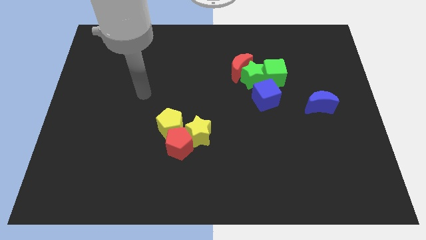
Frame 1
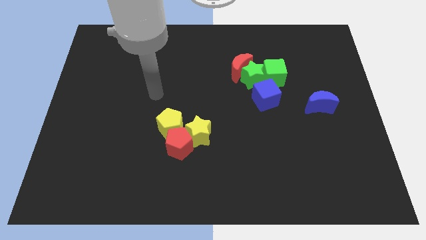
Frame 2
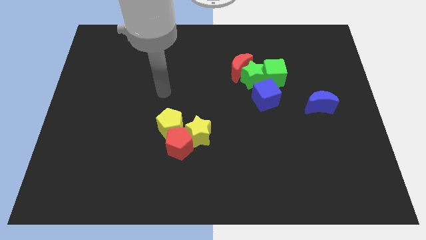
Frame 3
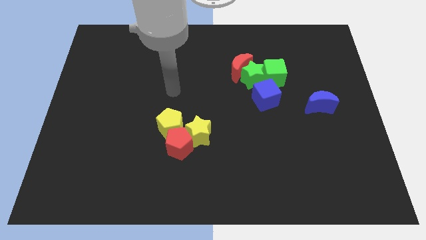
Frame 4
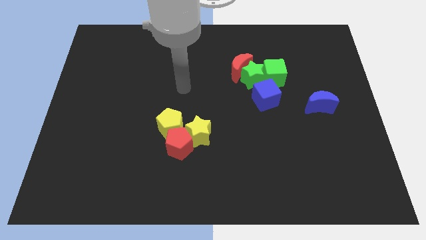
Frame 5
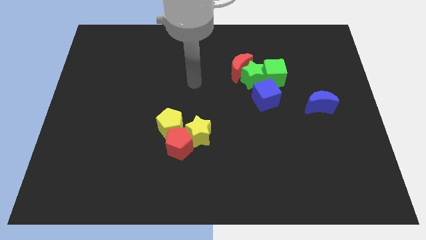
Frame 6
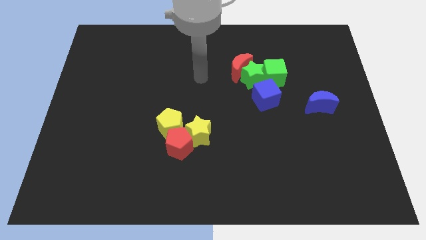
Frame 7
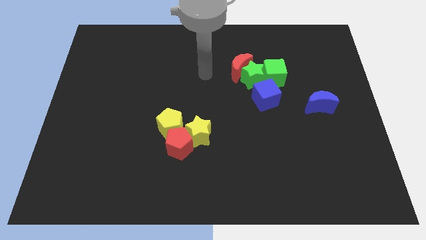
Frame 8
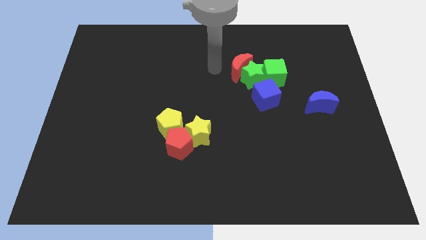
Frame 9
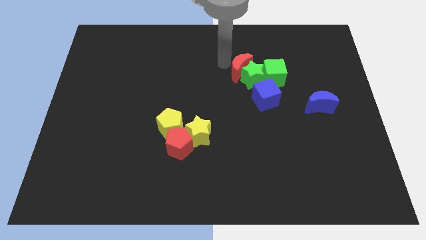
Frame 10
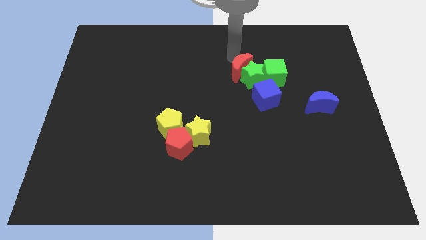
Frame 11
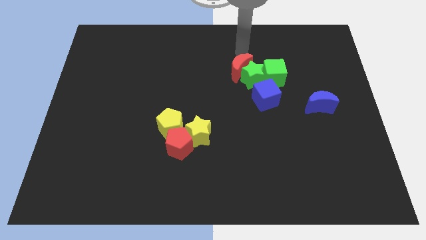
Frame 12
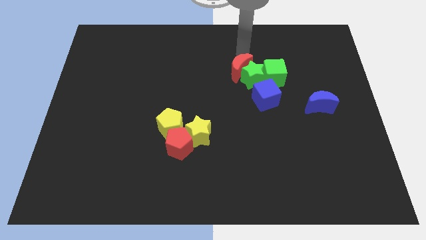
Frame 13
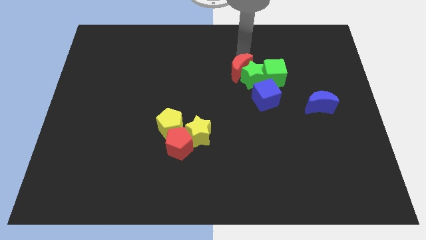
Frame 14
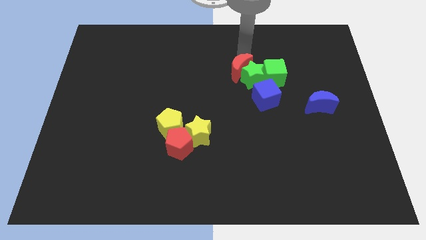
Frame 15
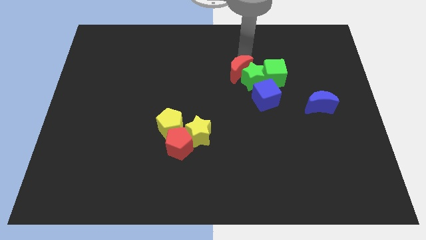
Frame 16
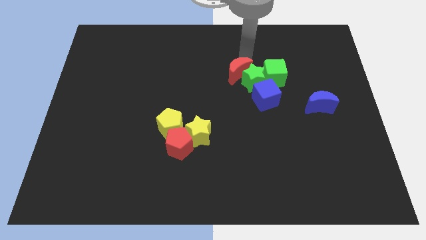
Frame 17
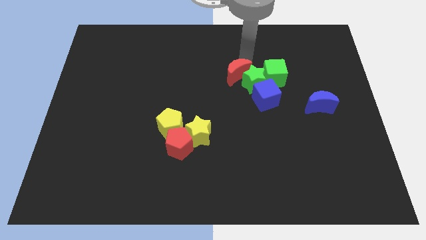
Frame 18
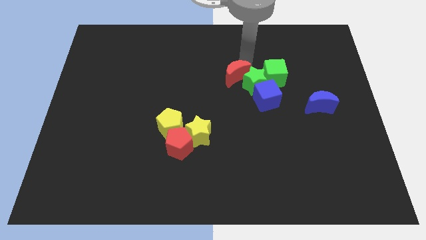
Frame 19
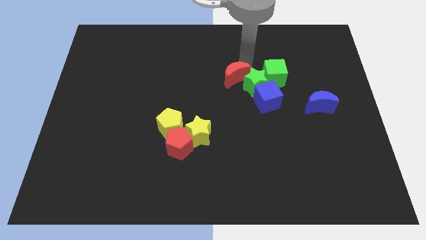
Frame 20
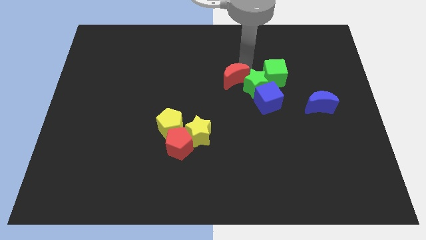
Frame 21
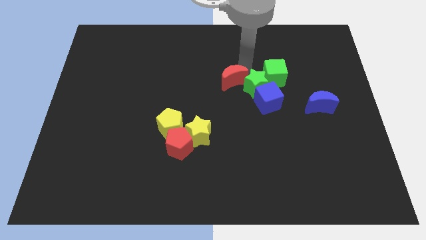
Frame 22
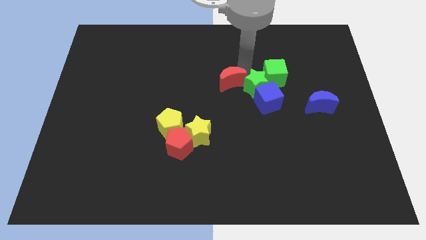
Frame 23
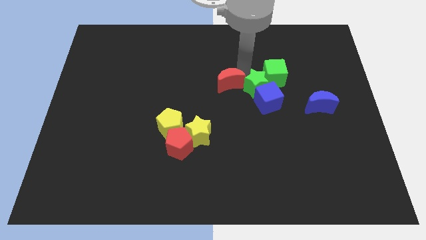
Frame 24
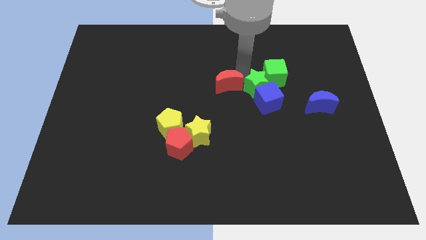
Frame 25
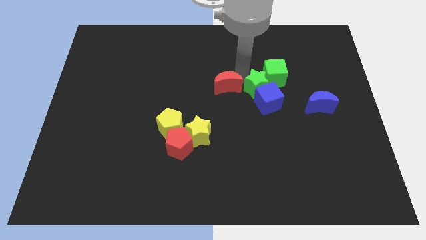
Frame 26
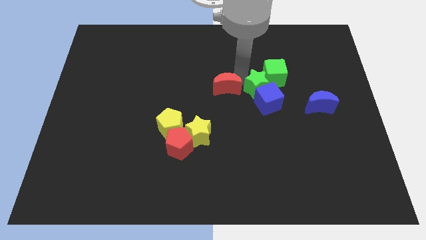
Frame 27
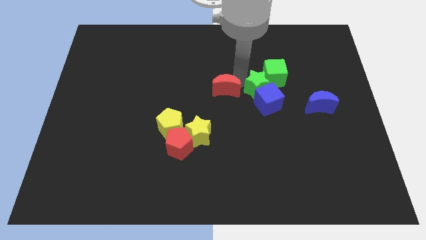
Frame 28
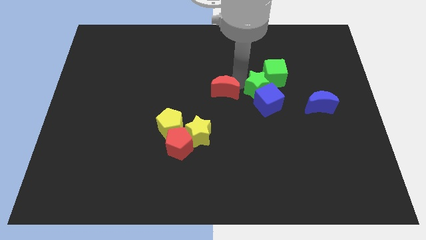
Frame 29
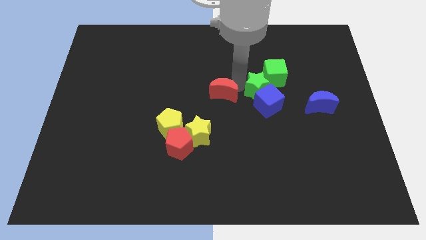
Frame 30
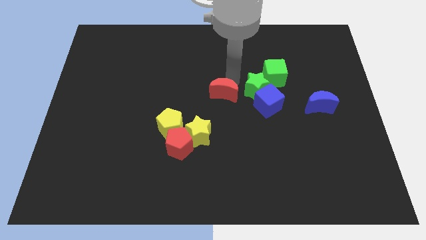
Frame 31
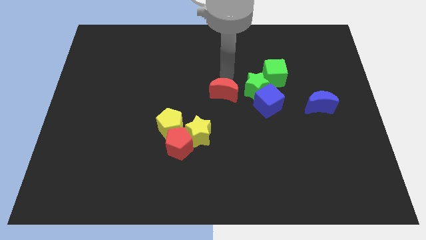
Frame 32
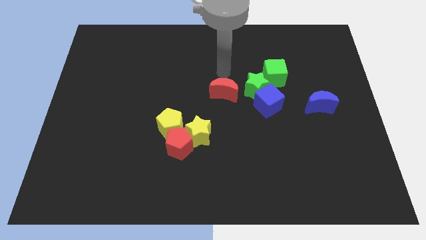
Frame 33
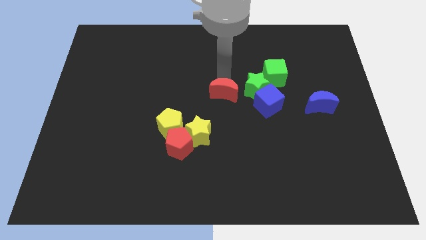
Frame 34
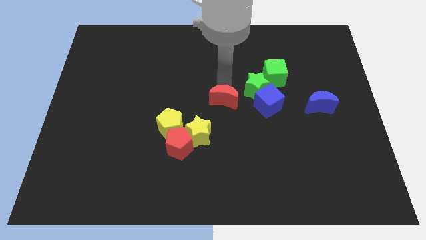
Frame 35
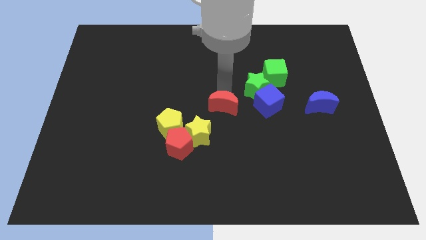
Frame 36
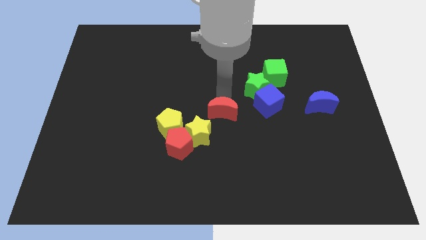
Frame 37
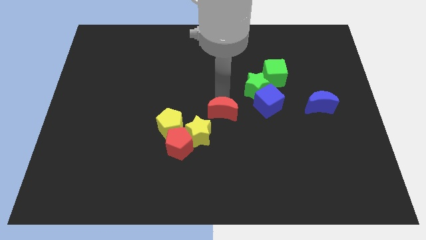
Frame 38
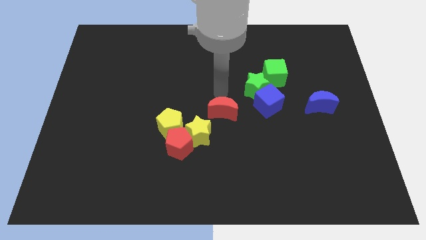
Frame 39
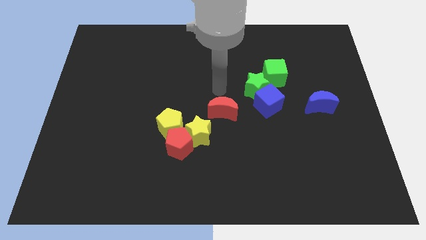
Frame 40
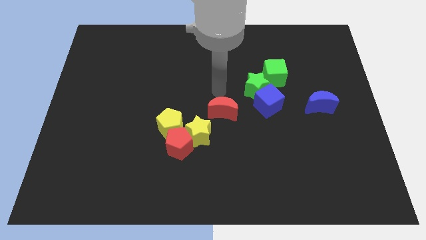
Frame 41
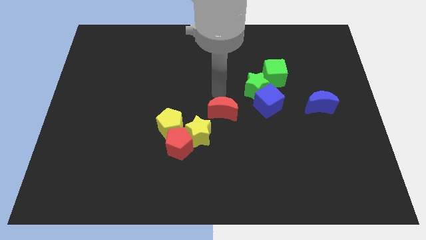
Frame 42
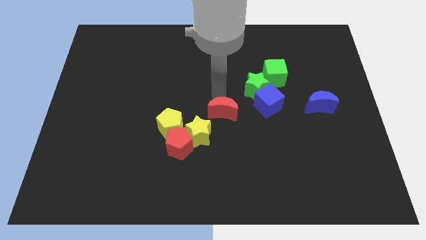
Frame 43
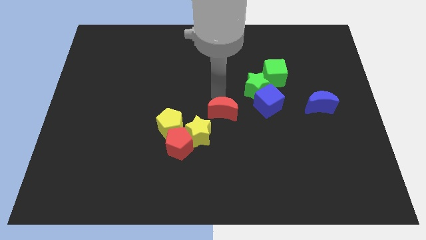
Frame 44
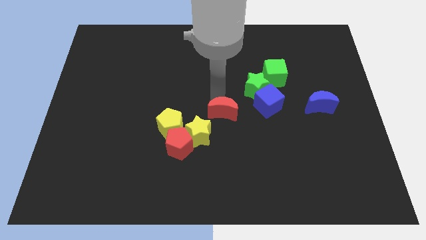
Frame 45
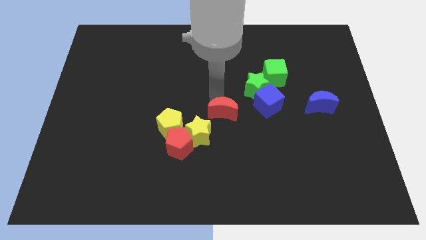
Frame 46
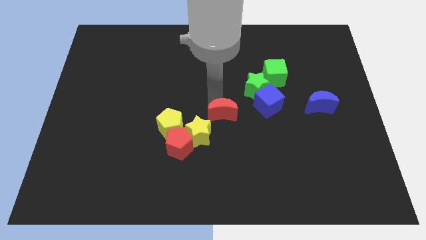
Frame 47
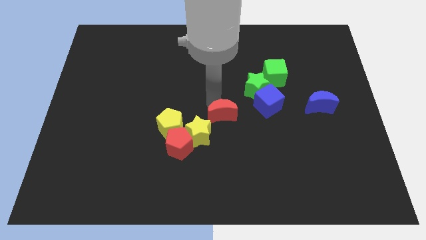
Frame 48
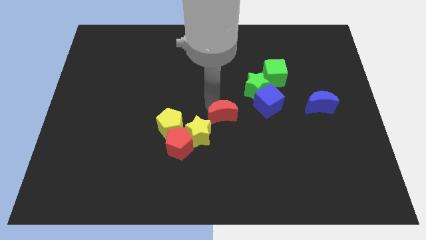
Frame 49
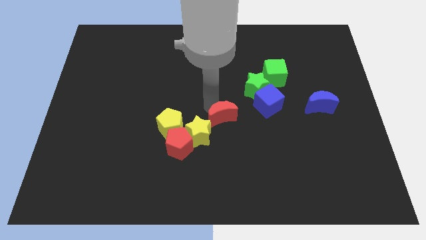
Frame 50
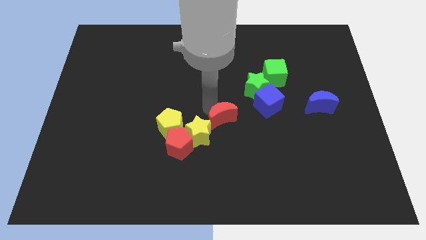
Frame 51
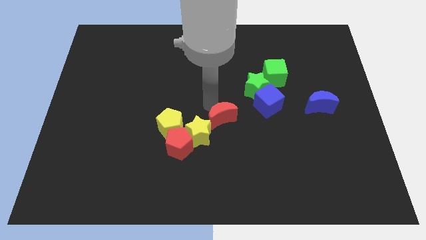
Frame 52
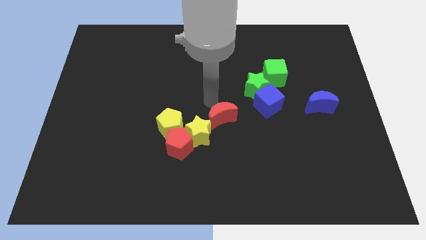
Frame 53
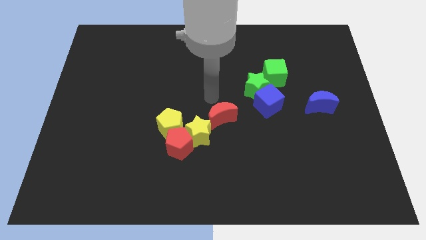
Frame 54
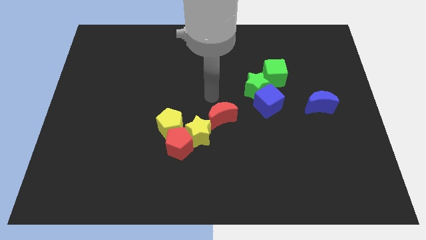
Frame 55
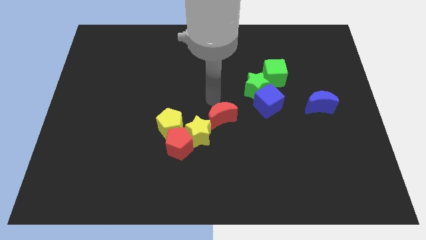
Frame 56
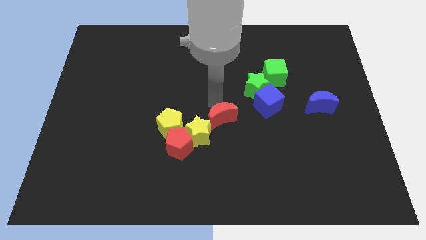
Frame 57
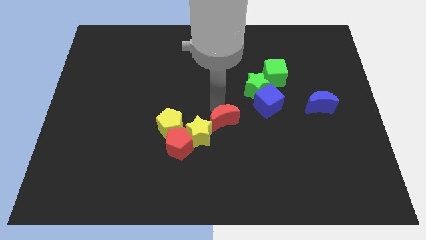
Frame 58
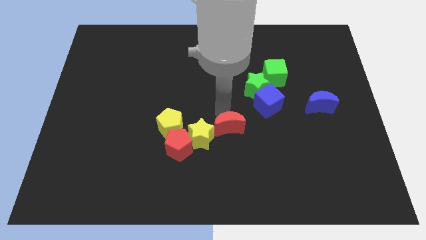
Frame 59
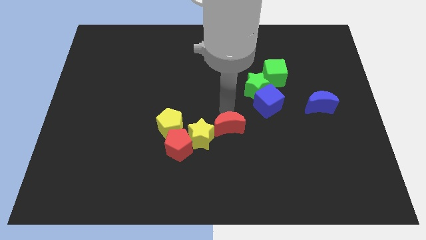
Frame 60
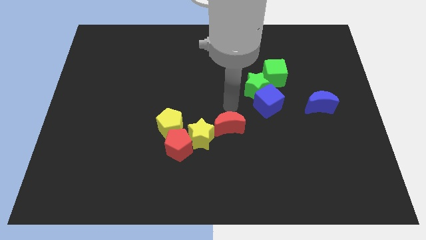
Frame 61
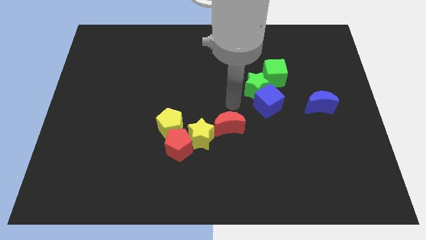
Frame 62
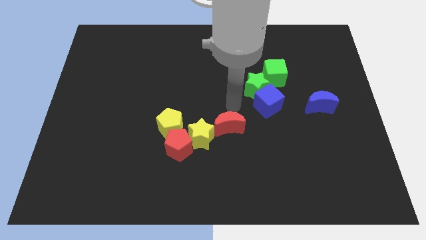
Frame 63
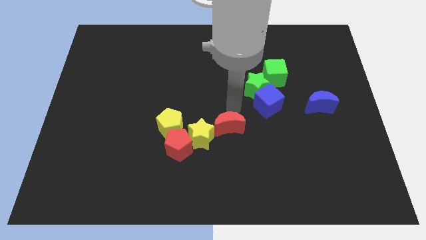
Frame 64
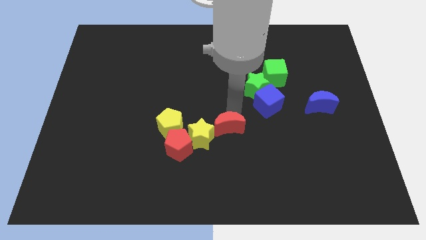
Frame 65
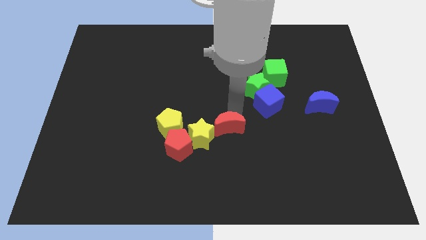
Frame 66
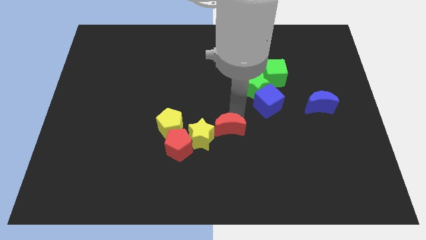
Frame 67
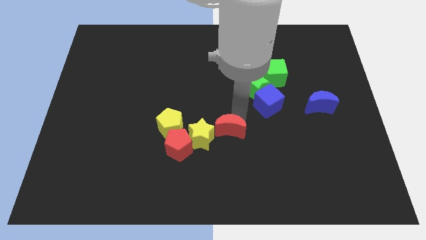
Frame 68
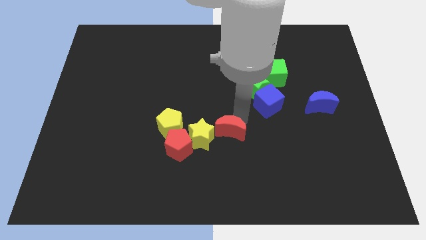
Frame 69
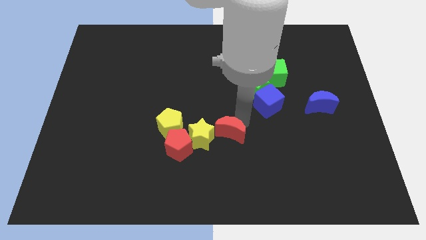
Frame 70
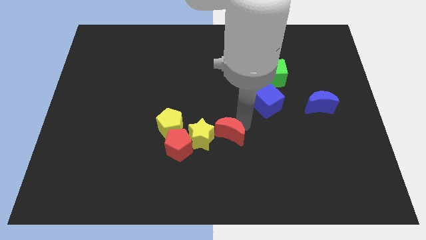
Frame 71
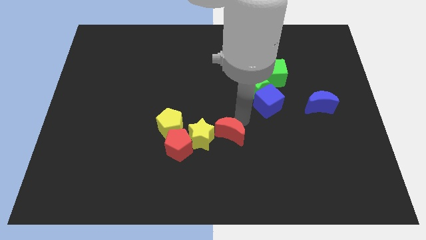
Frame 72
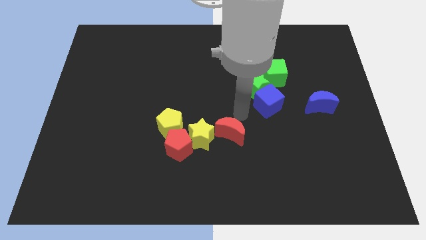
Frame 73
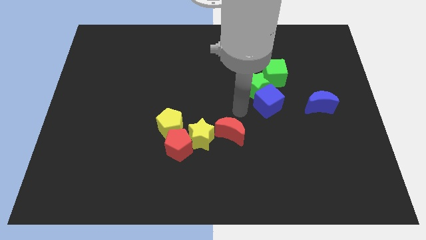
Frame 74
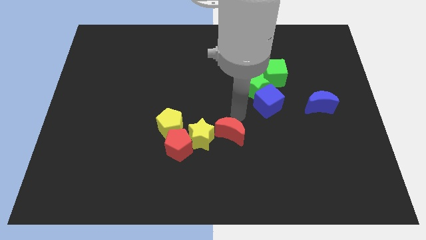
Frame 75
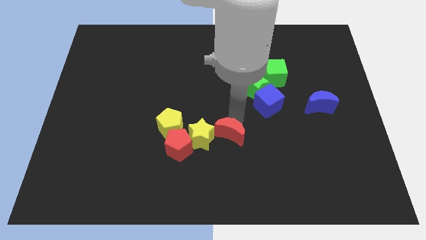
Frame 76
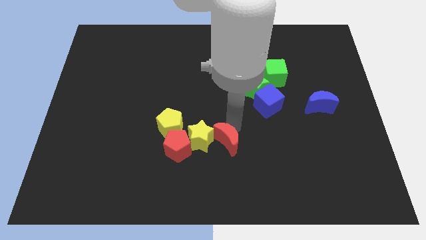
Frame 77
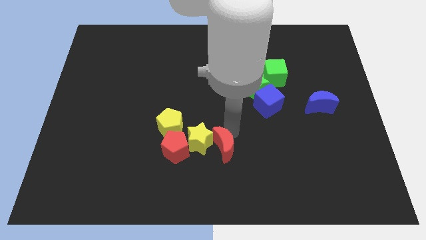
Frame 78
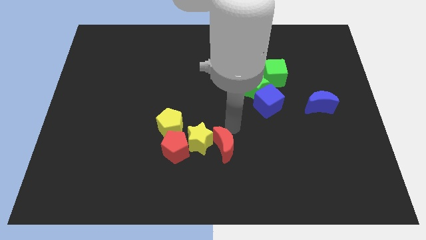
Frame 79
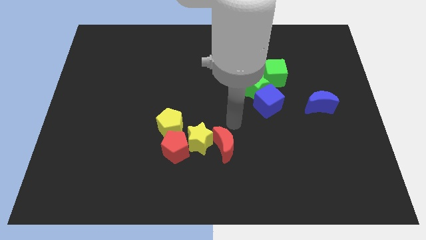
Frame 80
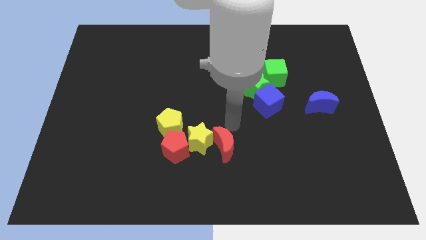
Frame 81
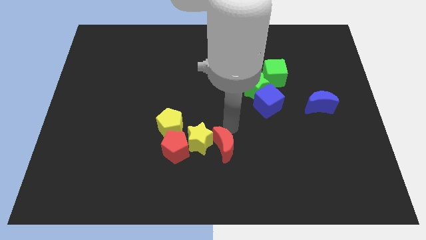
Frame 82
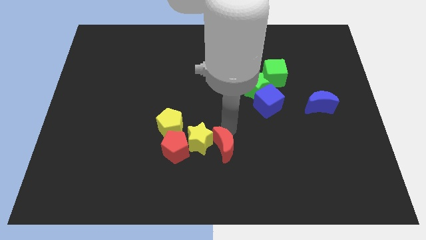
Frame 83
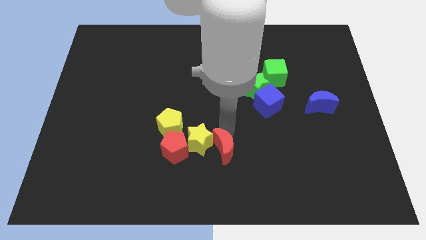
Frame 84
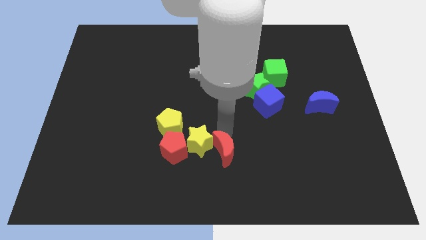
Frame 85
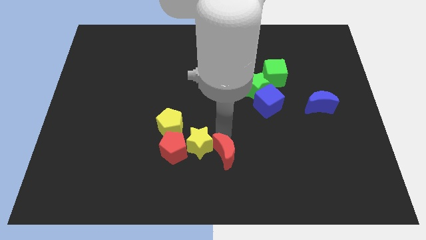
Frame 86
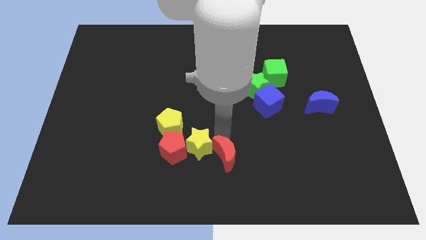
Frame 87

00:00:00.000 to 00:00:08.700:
slide the red moon to the bottom side
